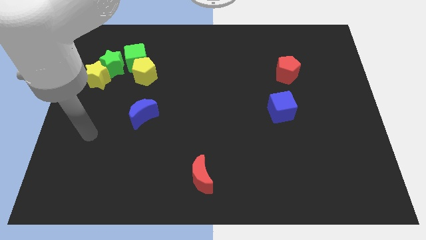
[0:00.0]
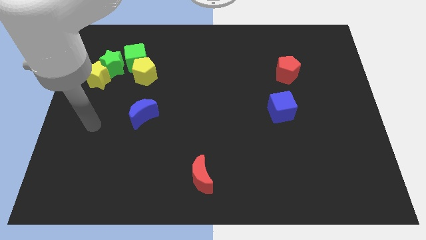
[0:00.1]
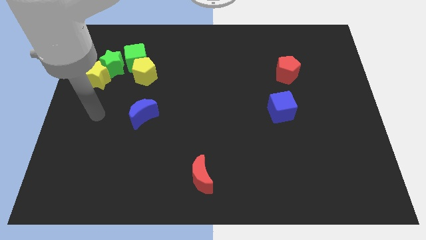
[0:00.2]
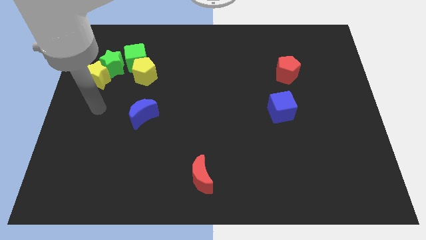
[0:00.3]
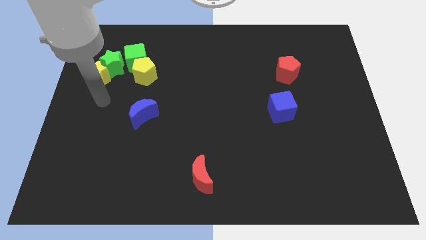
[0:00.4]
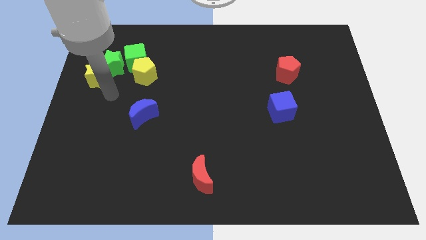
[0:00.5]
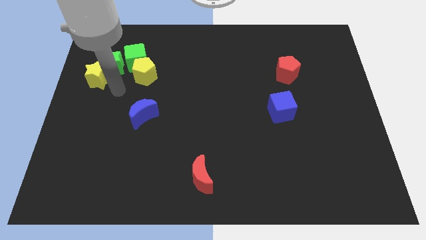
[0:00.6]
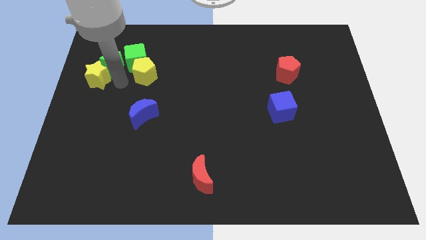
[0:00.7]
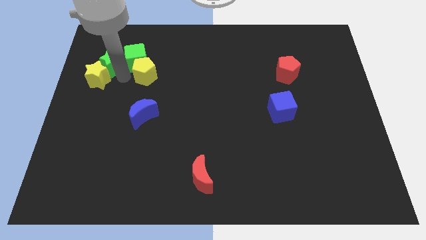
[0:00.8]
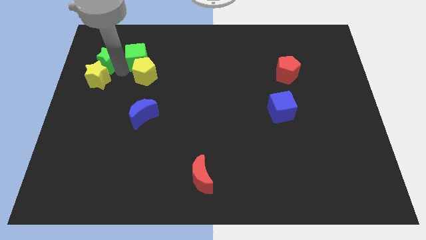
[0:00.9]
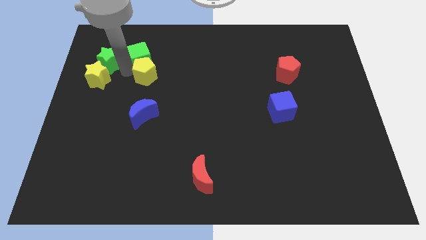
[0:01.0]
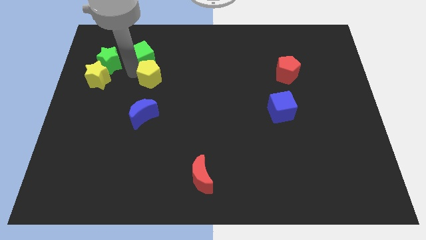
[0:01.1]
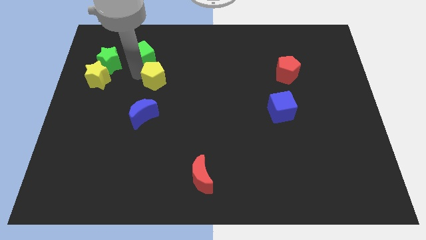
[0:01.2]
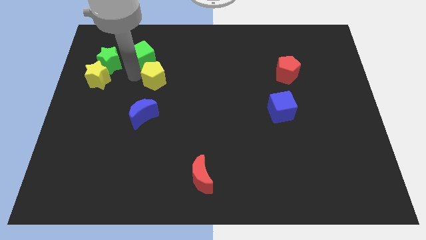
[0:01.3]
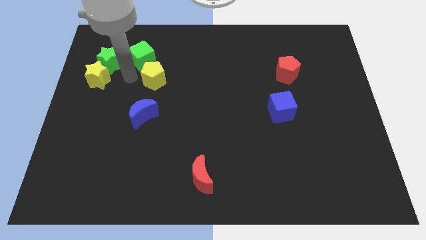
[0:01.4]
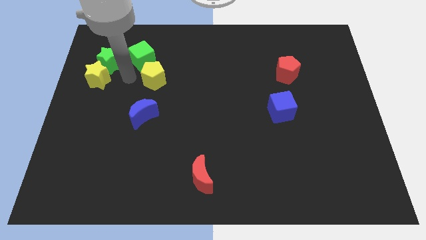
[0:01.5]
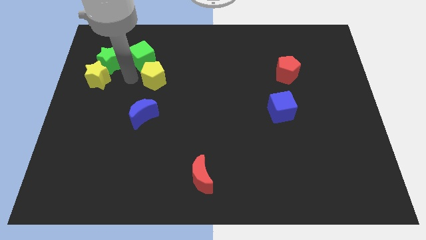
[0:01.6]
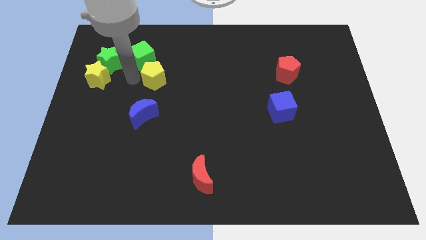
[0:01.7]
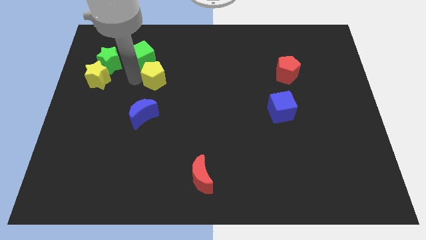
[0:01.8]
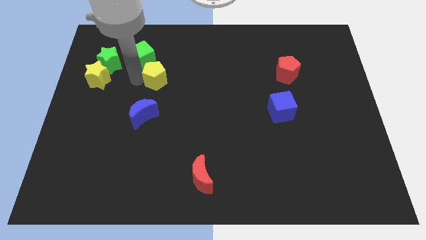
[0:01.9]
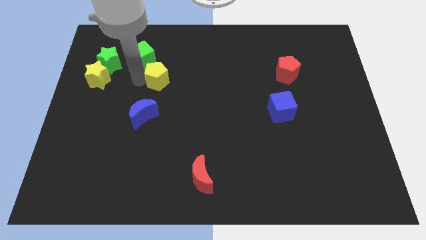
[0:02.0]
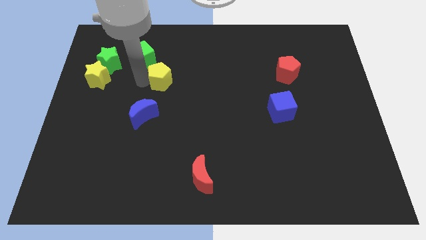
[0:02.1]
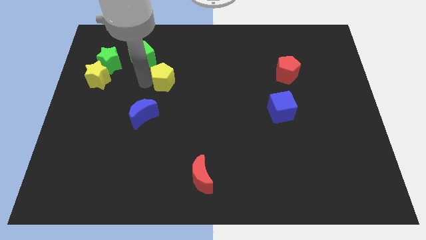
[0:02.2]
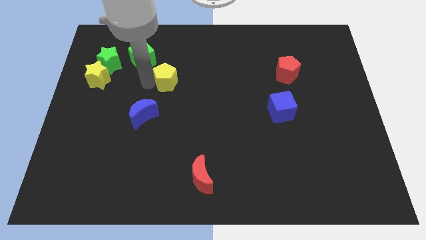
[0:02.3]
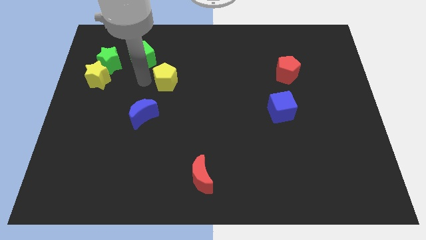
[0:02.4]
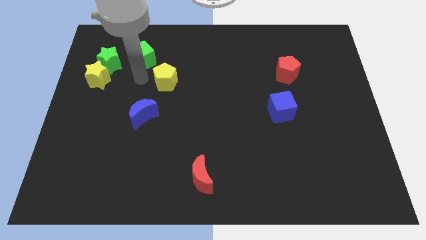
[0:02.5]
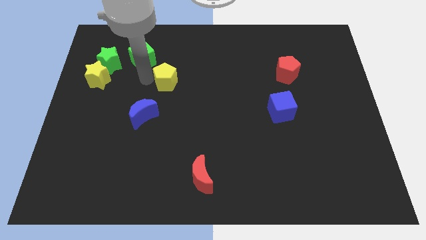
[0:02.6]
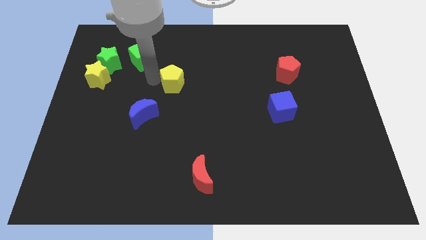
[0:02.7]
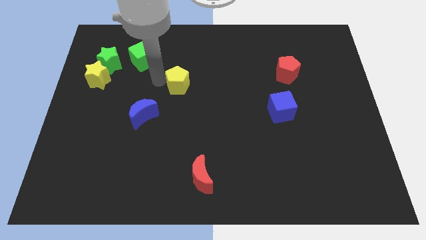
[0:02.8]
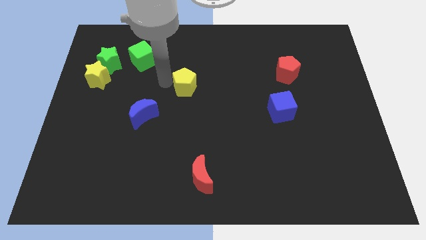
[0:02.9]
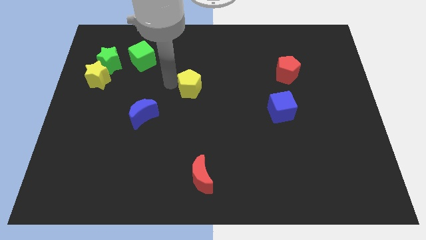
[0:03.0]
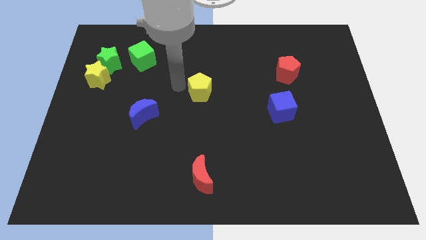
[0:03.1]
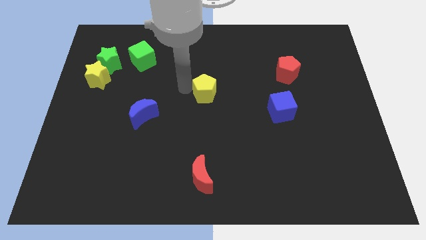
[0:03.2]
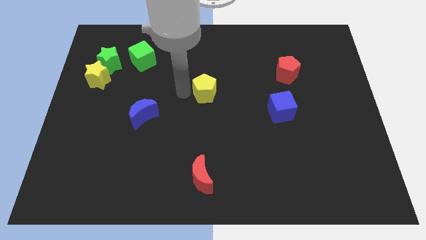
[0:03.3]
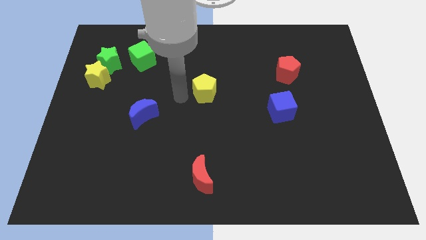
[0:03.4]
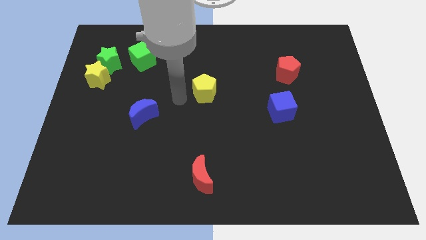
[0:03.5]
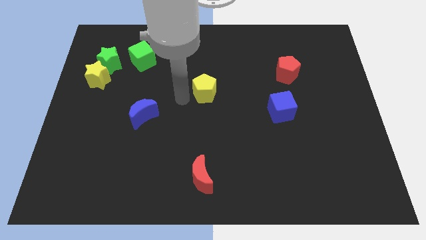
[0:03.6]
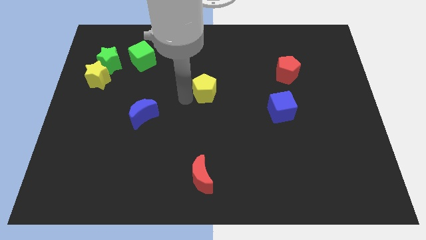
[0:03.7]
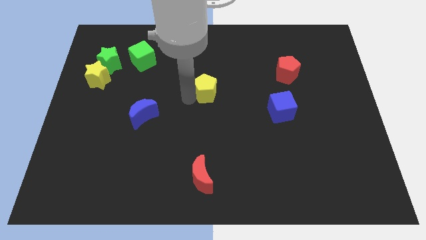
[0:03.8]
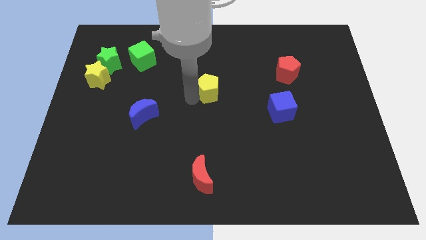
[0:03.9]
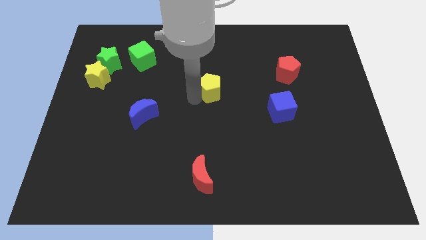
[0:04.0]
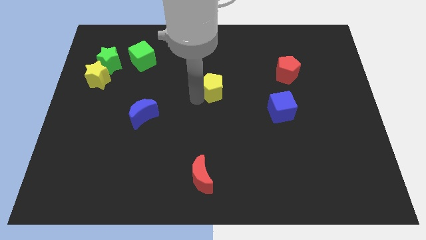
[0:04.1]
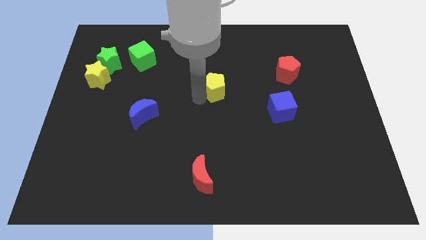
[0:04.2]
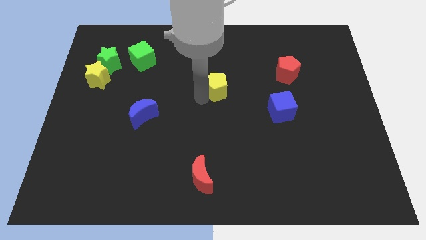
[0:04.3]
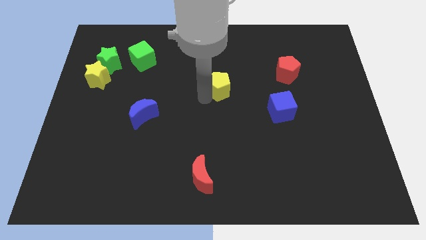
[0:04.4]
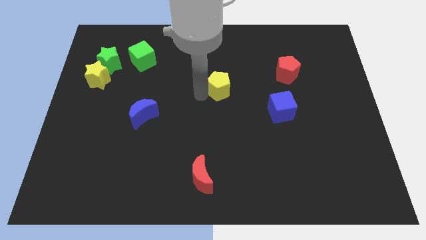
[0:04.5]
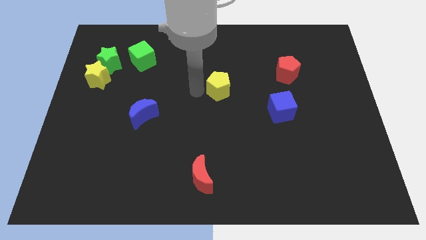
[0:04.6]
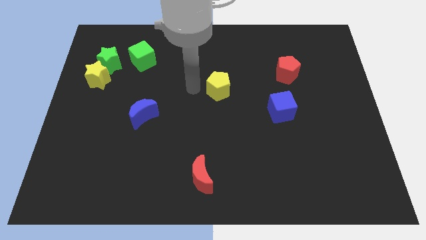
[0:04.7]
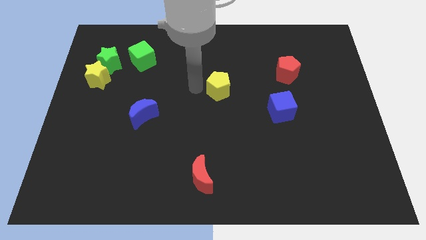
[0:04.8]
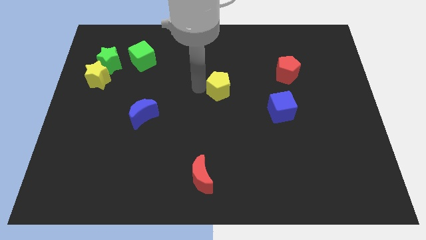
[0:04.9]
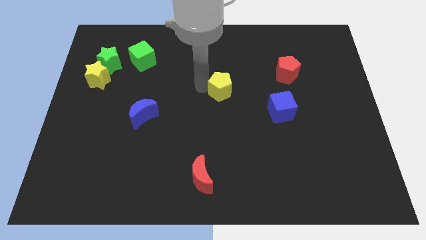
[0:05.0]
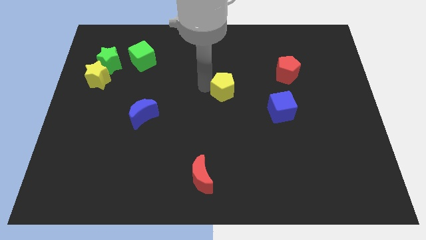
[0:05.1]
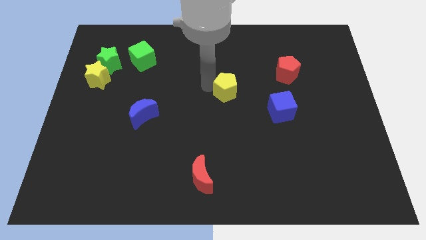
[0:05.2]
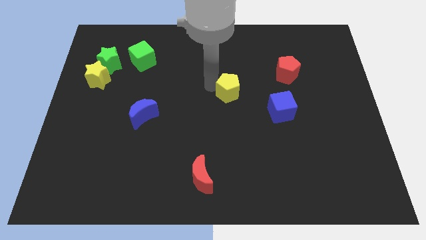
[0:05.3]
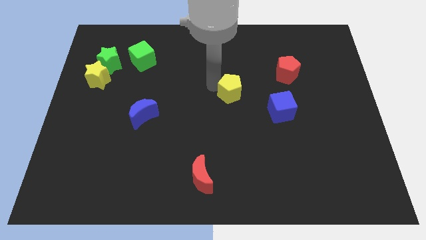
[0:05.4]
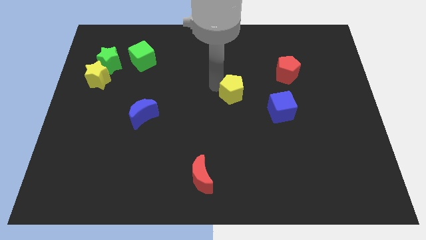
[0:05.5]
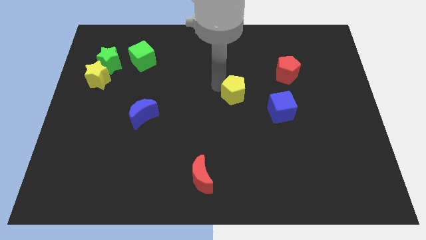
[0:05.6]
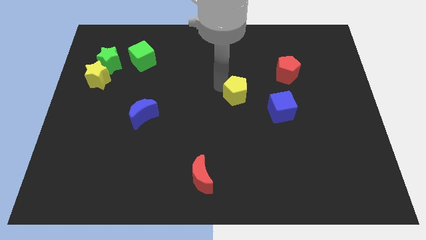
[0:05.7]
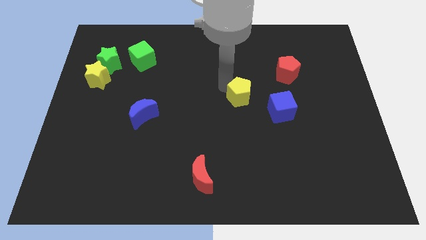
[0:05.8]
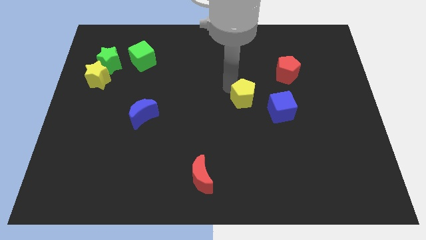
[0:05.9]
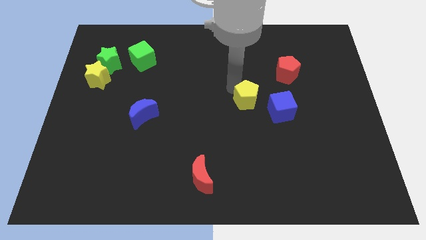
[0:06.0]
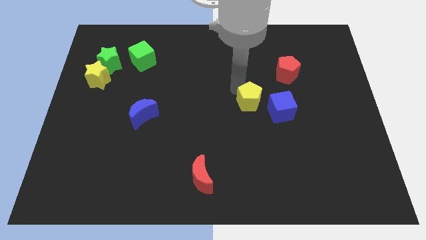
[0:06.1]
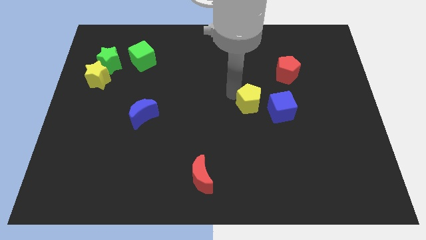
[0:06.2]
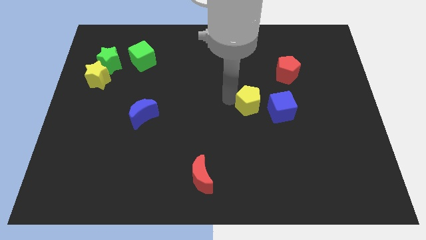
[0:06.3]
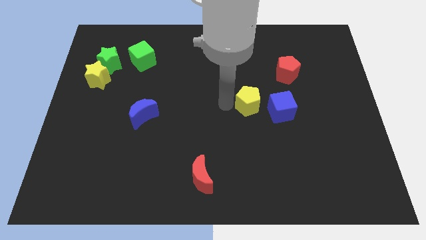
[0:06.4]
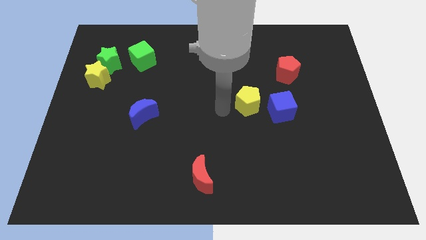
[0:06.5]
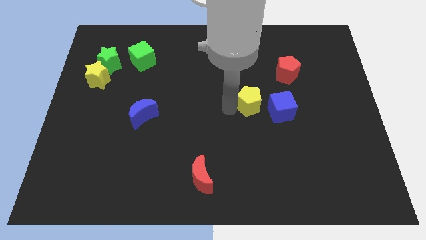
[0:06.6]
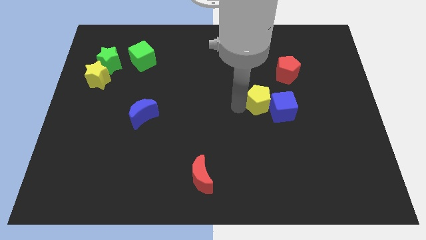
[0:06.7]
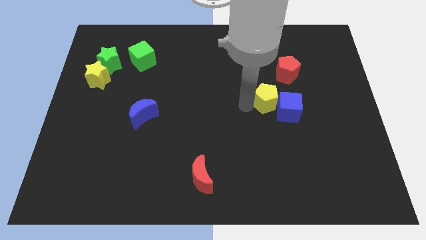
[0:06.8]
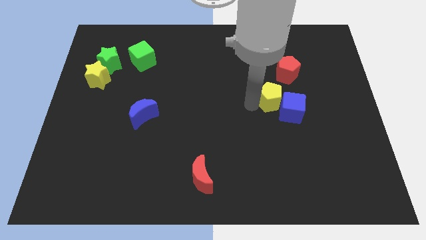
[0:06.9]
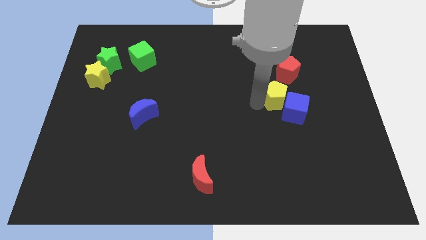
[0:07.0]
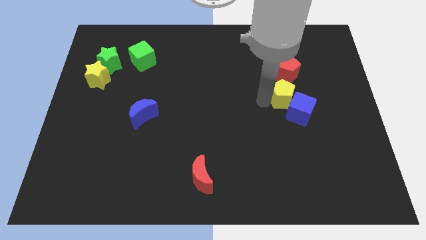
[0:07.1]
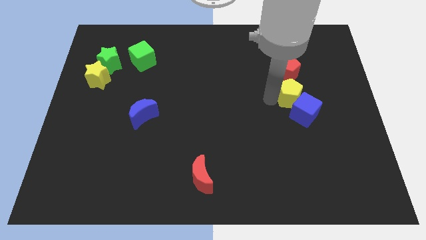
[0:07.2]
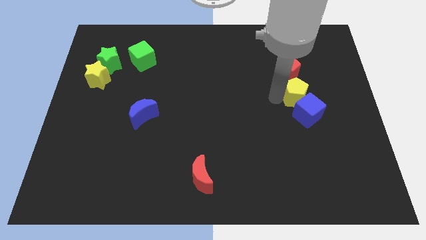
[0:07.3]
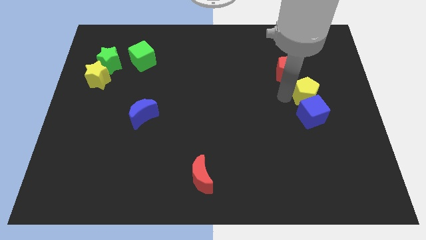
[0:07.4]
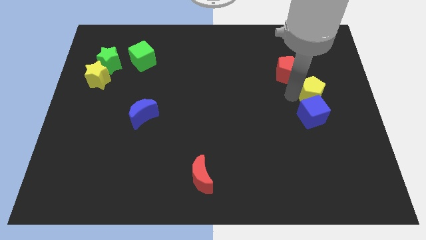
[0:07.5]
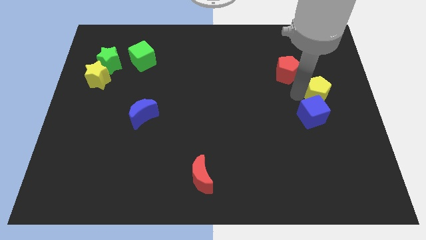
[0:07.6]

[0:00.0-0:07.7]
move the yellow pentagon to the right side of the board
